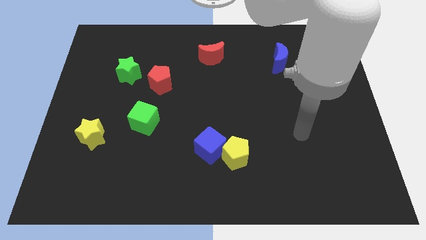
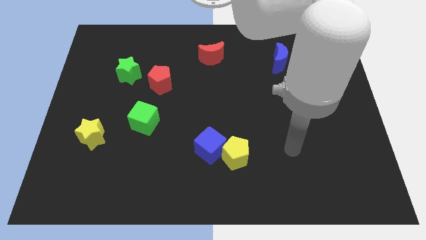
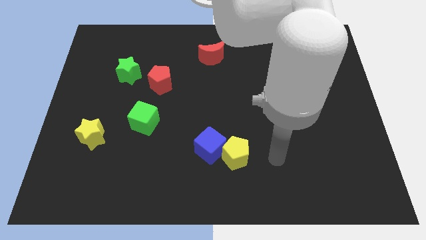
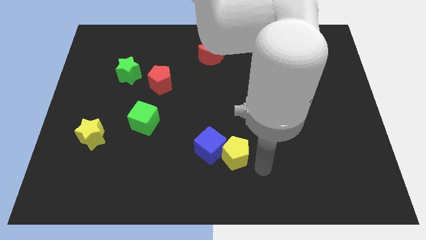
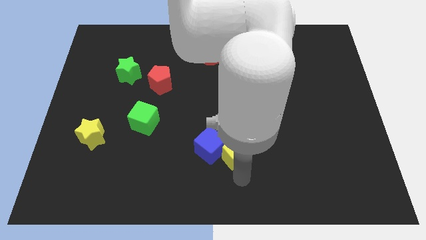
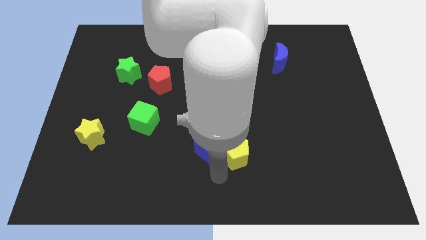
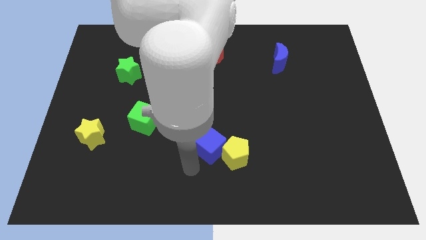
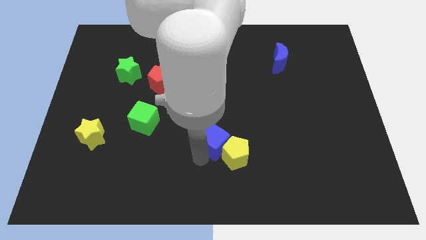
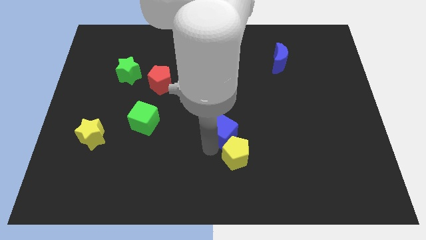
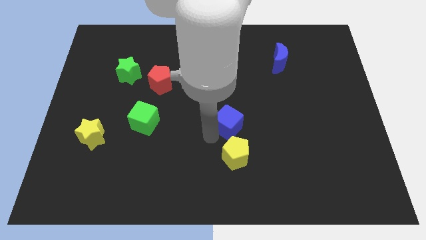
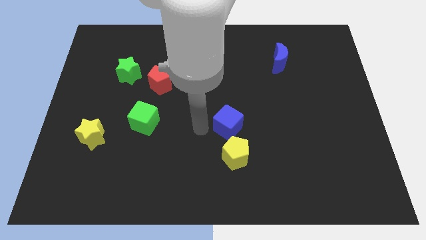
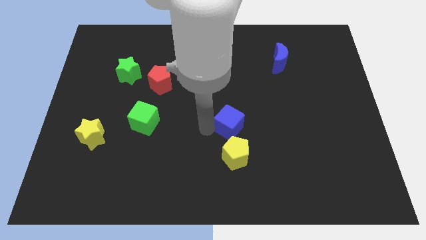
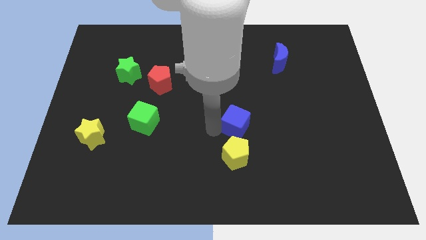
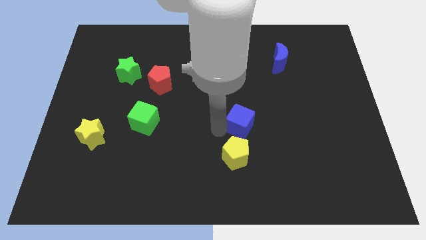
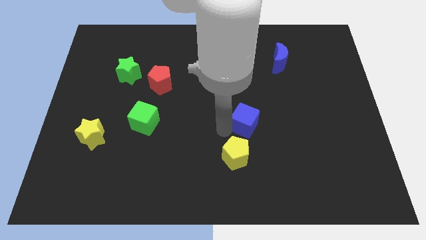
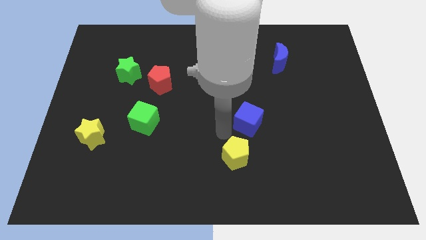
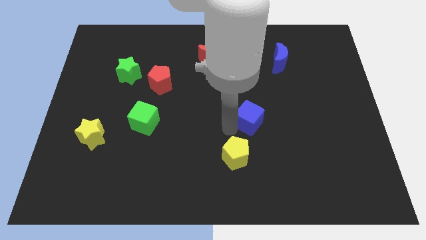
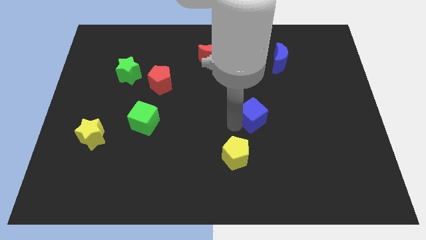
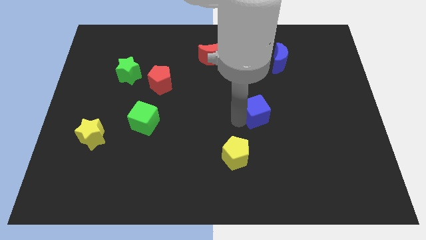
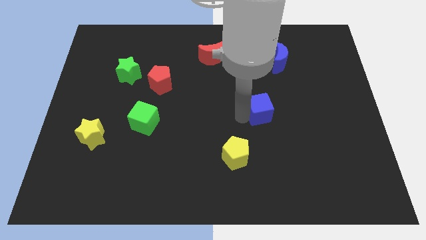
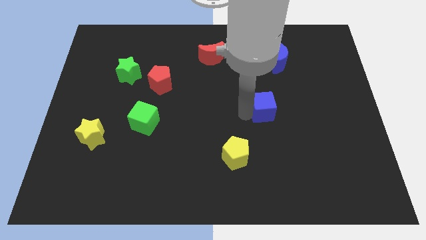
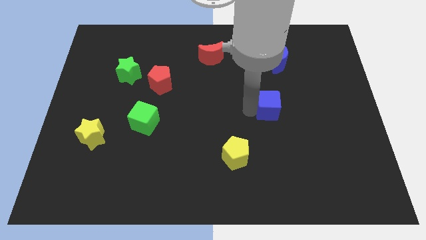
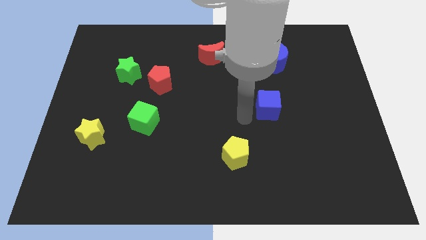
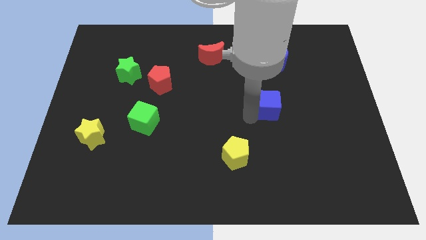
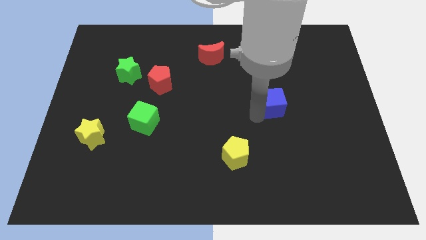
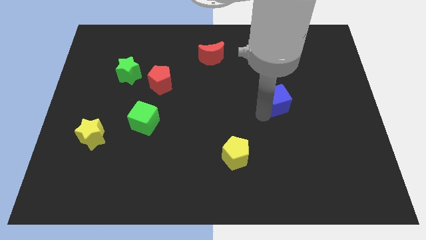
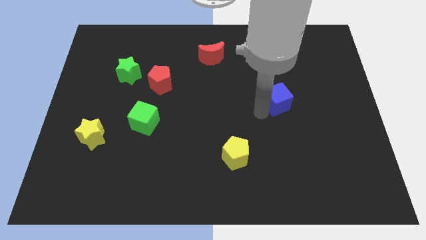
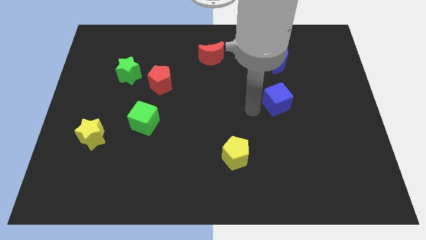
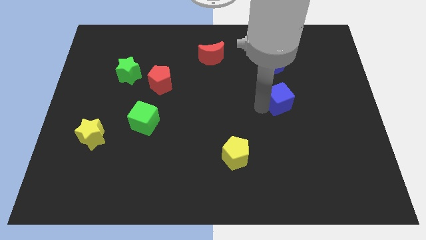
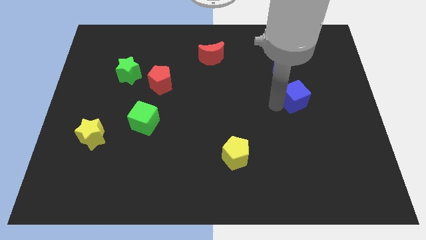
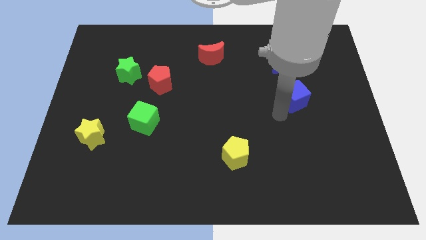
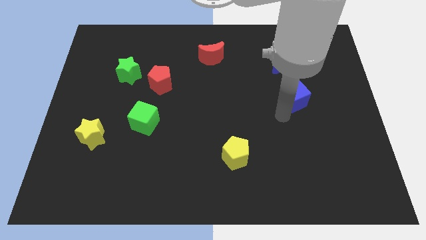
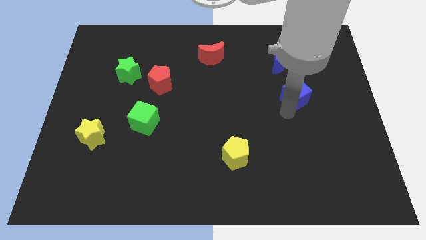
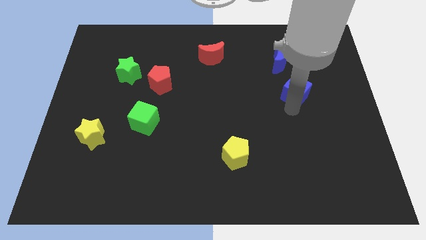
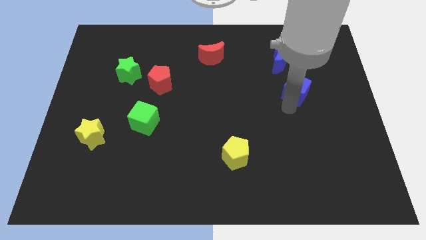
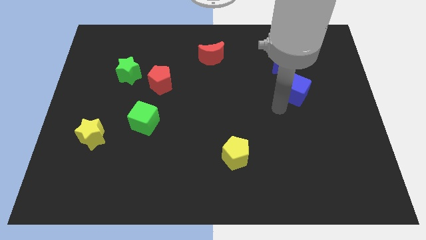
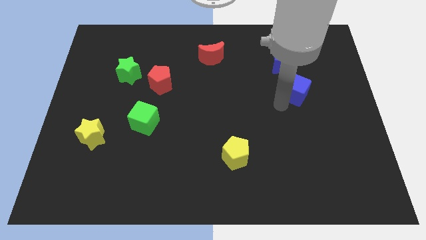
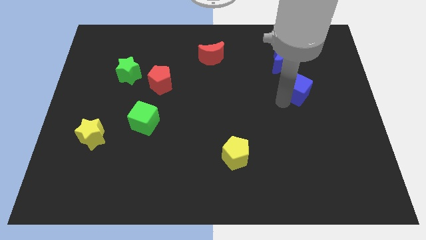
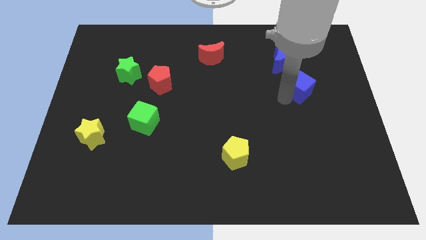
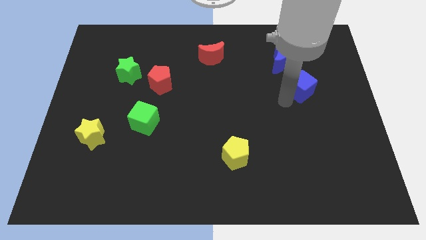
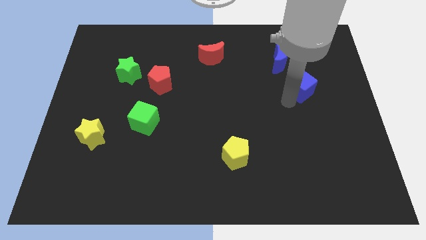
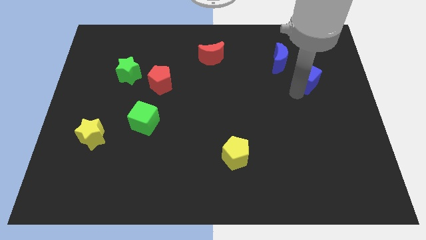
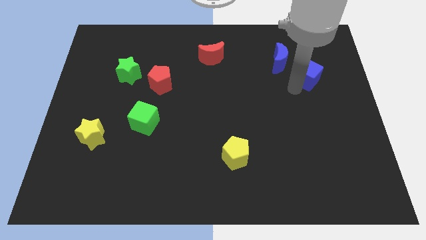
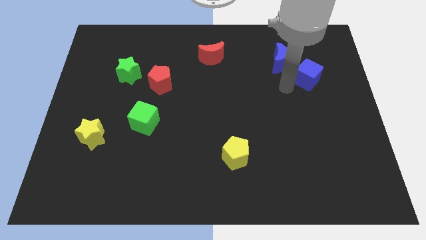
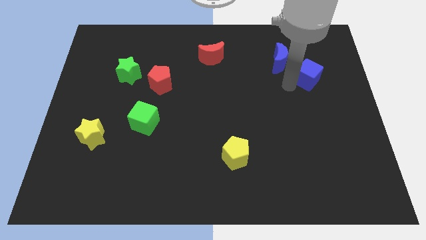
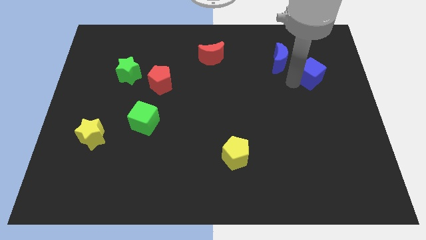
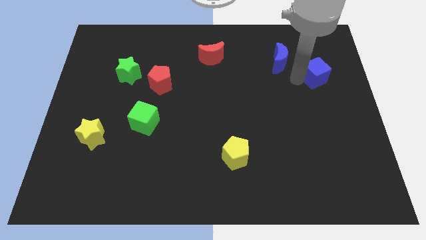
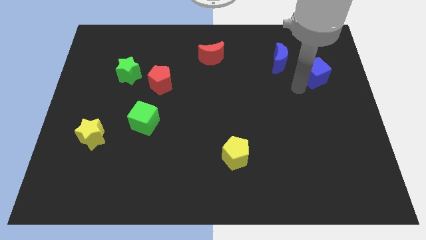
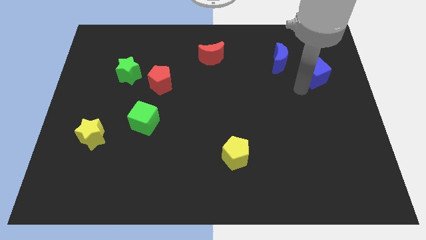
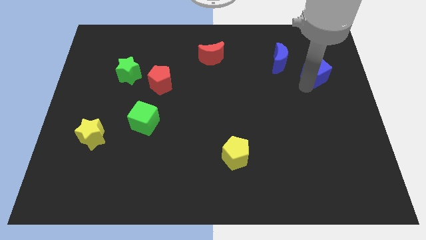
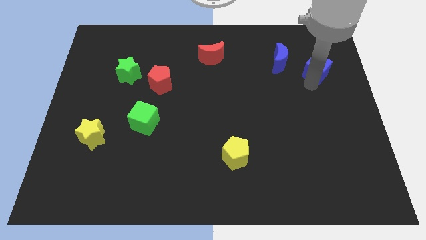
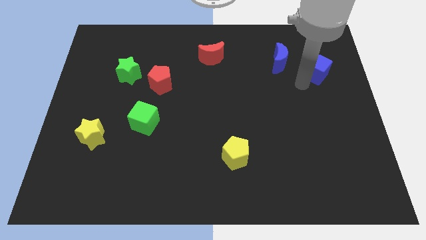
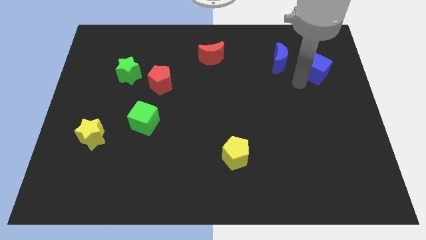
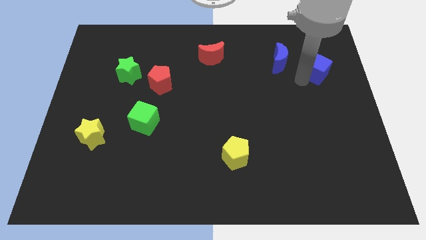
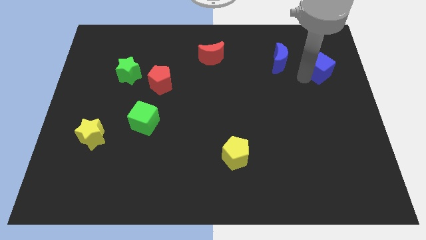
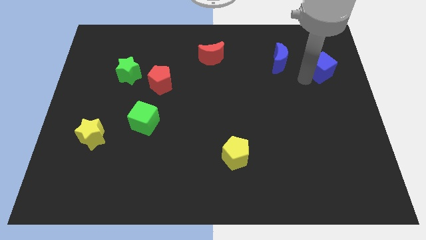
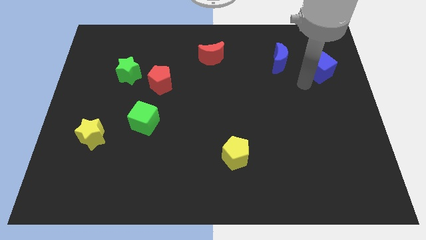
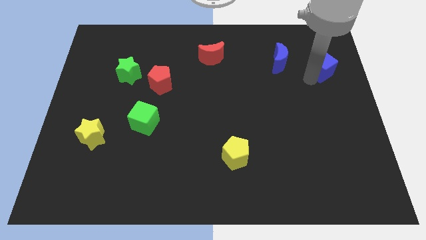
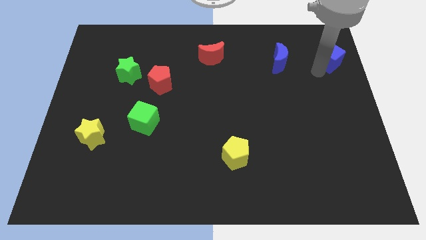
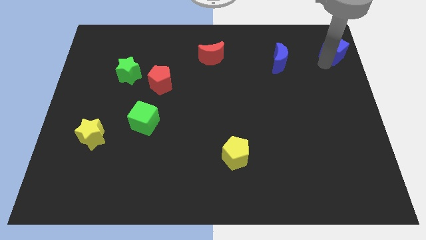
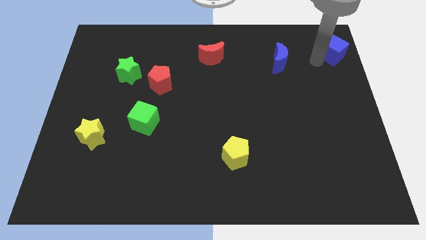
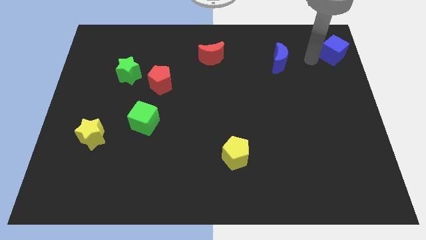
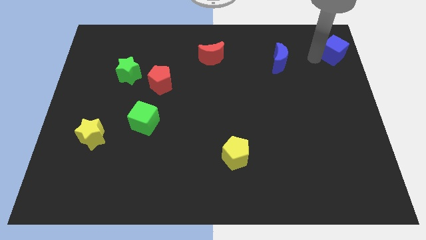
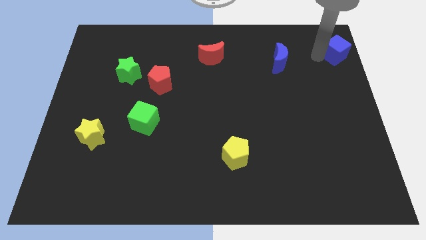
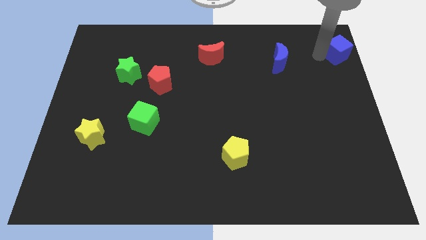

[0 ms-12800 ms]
slide the blue cube to the top right corner

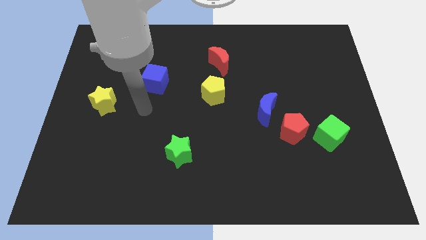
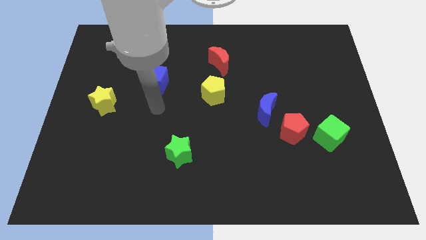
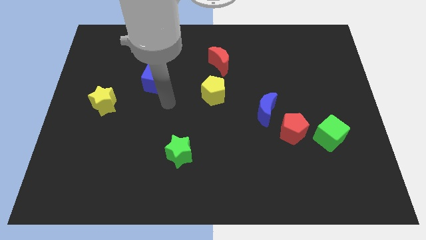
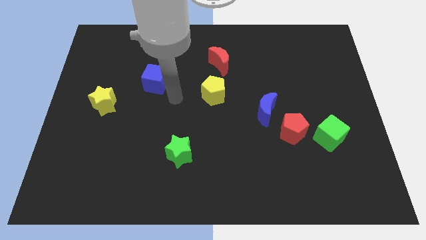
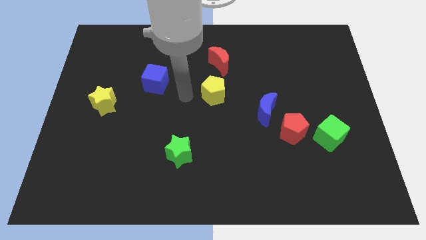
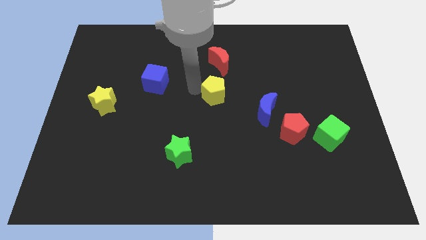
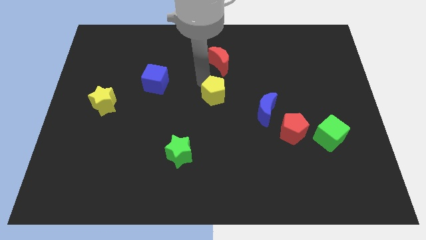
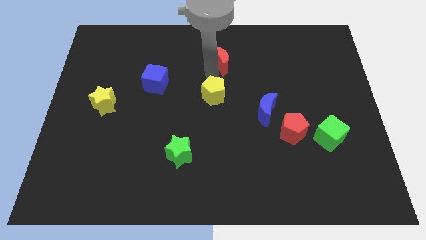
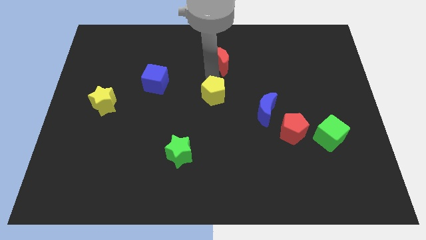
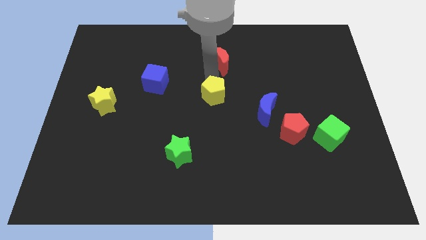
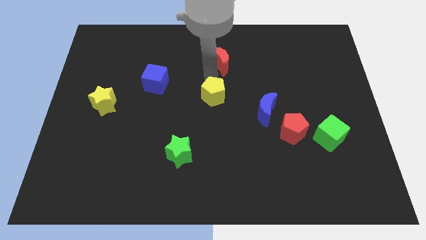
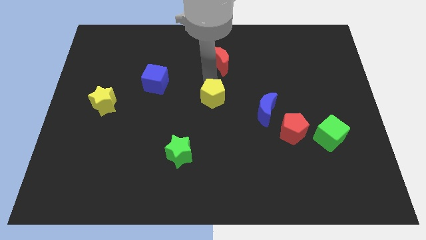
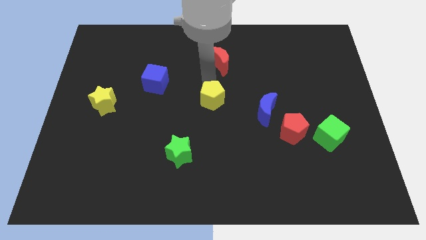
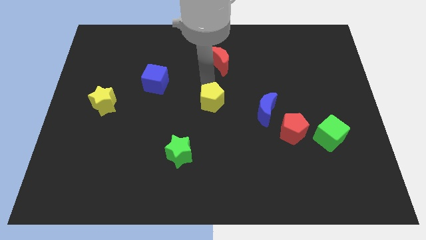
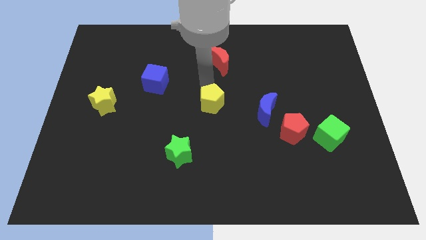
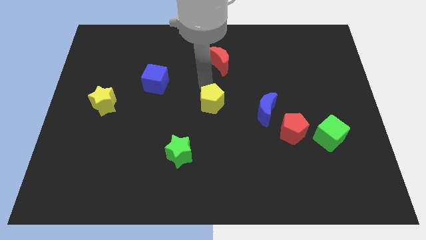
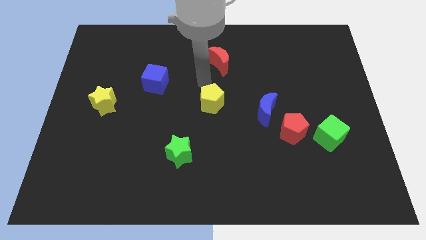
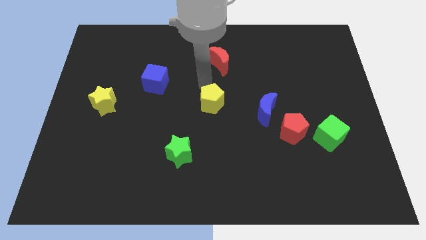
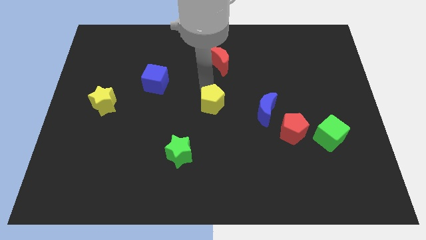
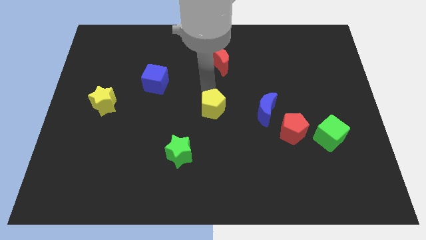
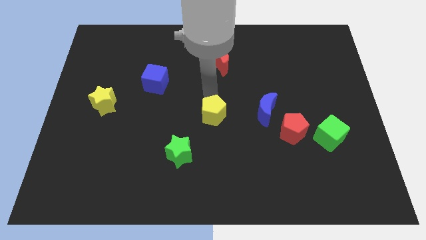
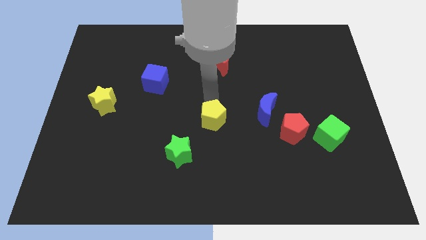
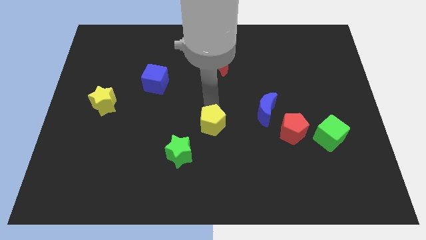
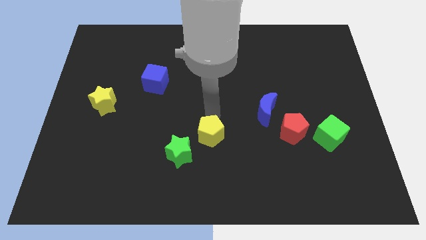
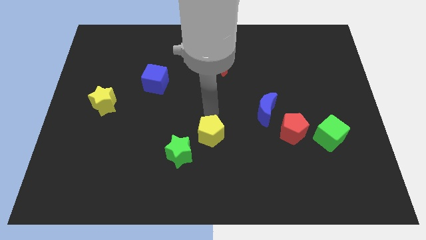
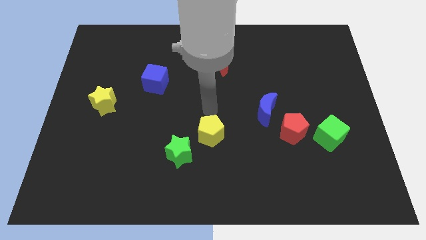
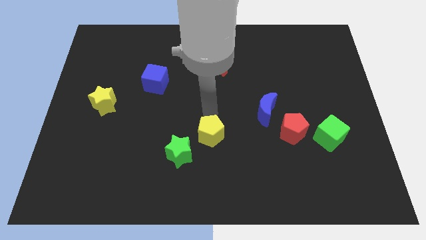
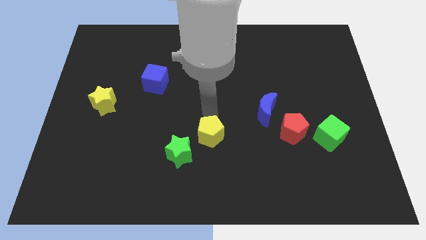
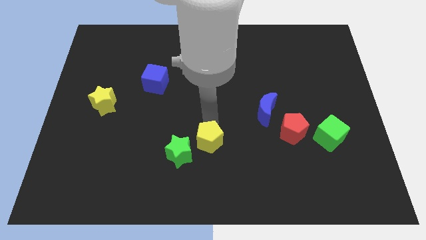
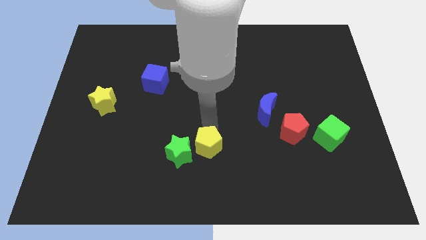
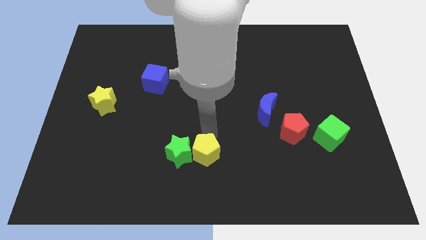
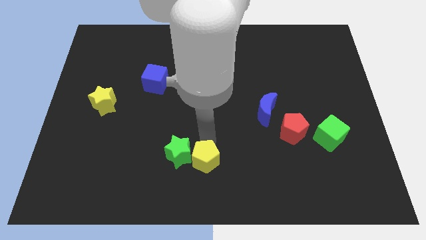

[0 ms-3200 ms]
move the yellow pentagon to the bottom side
